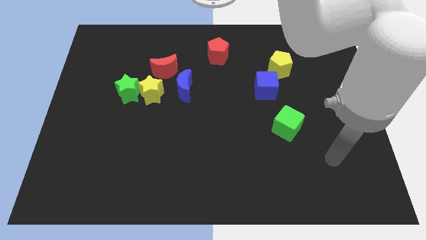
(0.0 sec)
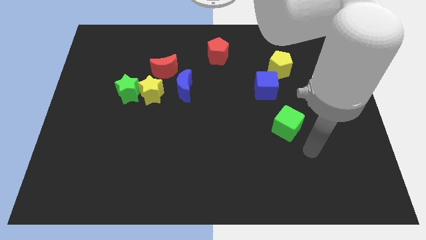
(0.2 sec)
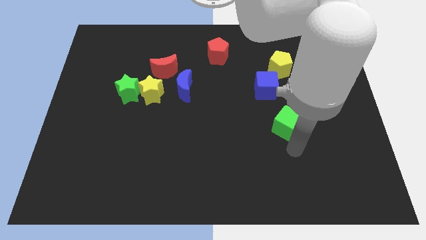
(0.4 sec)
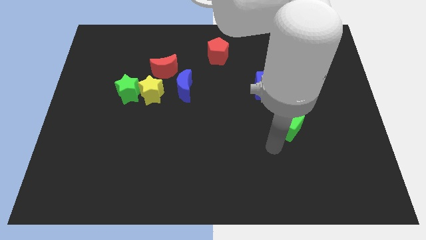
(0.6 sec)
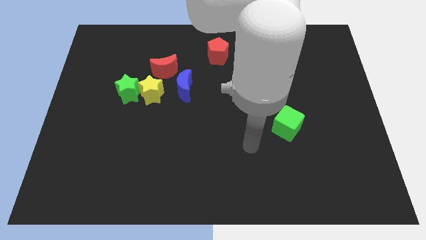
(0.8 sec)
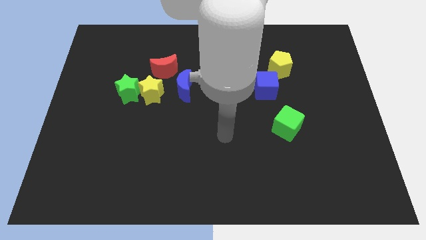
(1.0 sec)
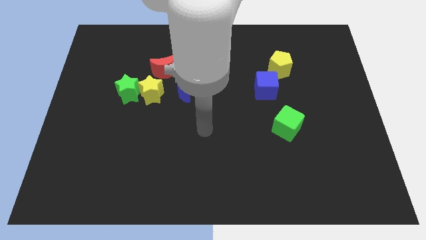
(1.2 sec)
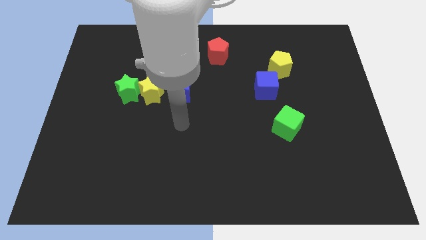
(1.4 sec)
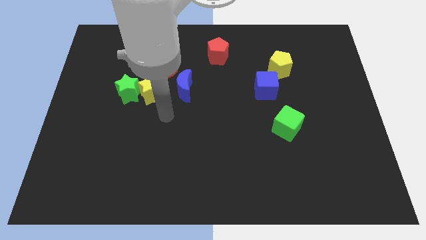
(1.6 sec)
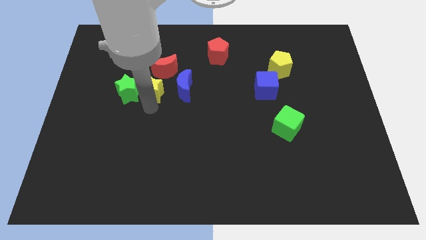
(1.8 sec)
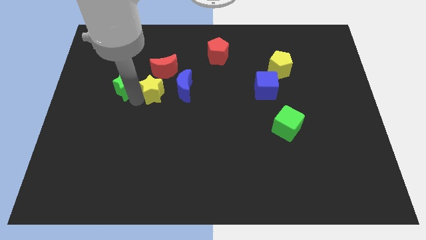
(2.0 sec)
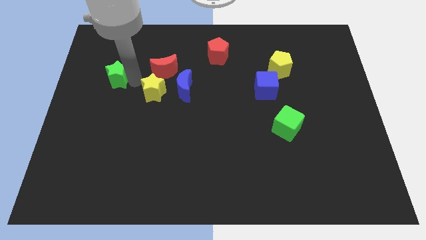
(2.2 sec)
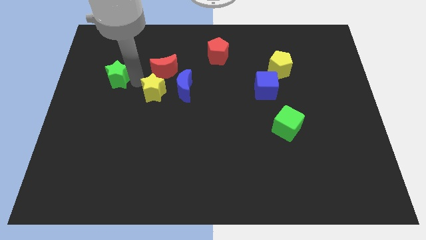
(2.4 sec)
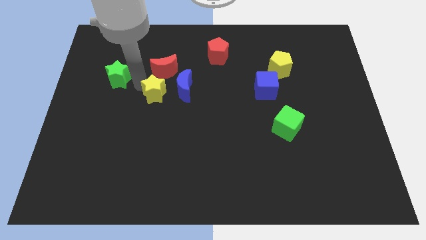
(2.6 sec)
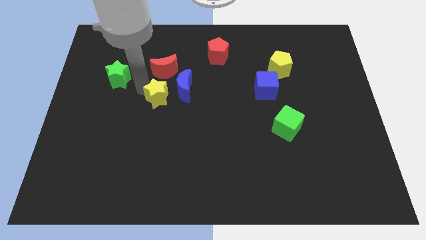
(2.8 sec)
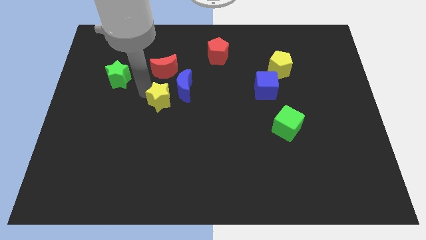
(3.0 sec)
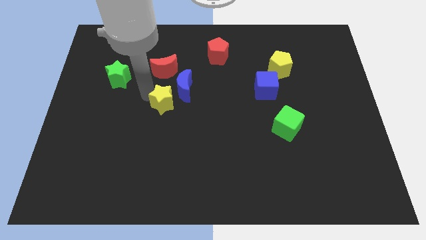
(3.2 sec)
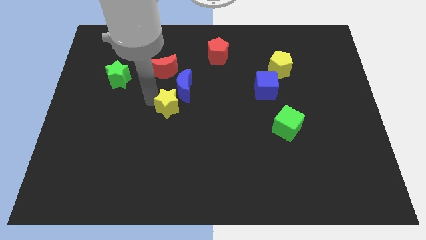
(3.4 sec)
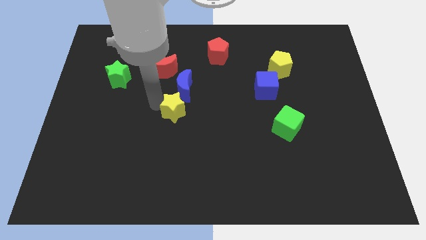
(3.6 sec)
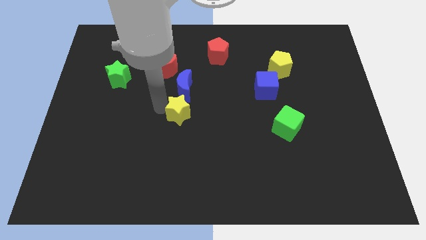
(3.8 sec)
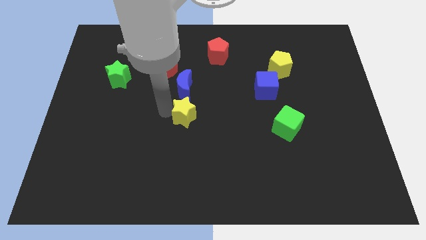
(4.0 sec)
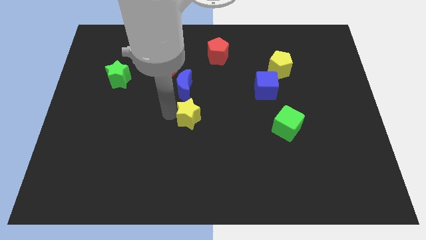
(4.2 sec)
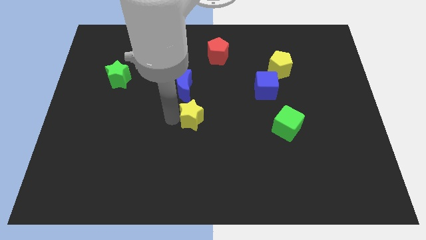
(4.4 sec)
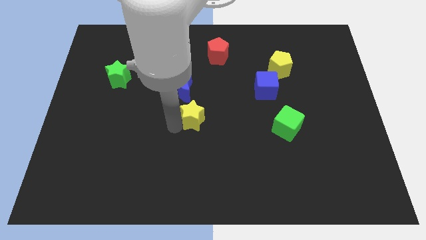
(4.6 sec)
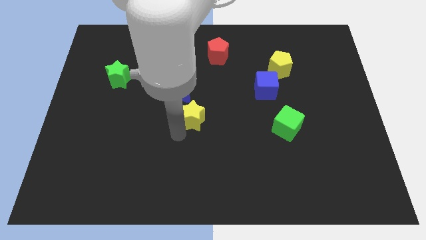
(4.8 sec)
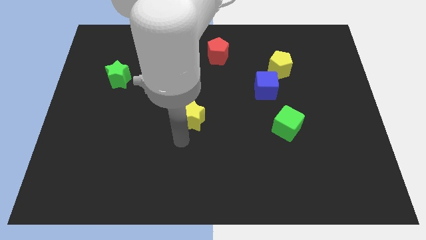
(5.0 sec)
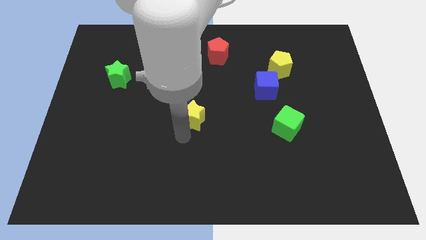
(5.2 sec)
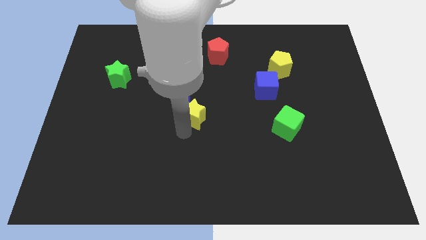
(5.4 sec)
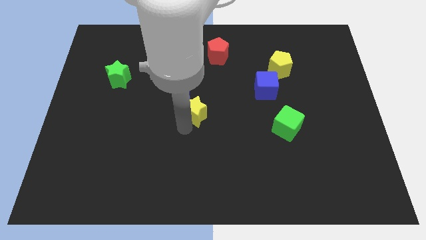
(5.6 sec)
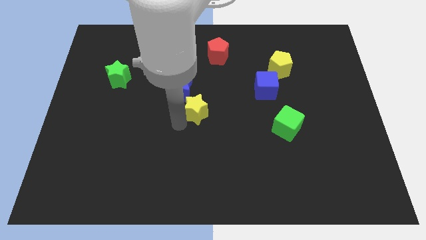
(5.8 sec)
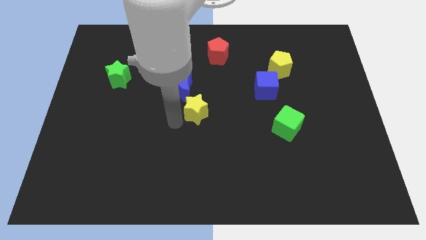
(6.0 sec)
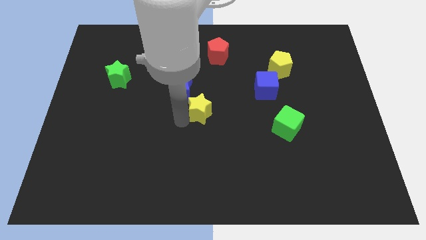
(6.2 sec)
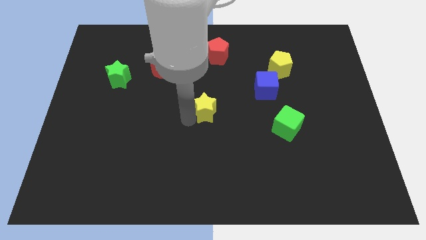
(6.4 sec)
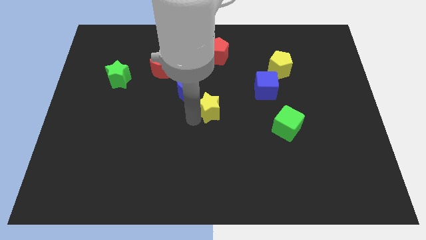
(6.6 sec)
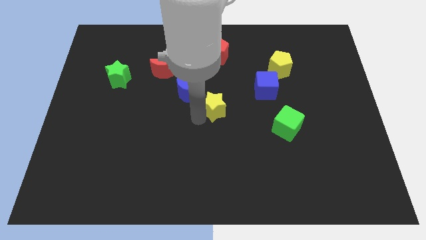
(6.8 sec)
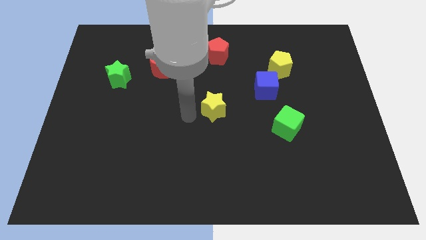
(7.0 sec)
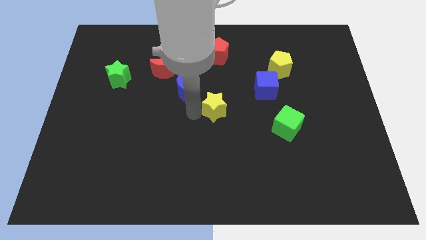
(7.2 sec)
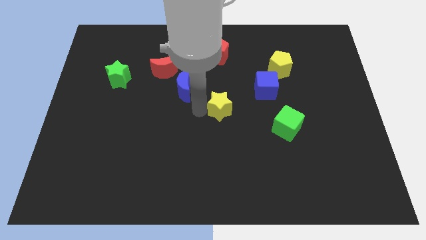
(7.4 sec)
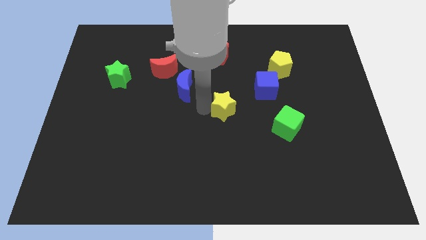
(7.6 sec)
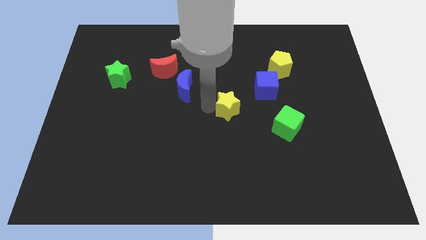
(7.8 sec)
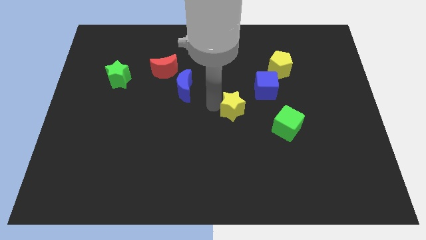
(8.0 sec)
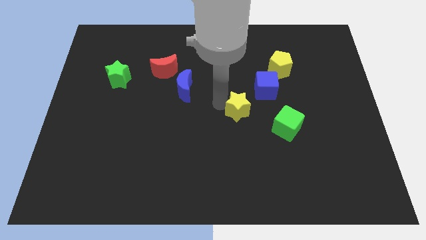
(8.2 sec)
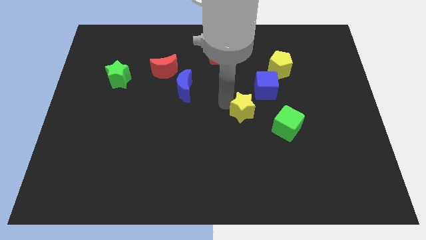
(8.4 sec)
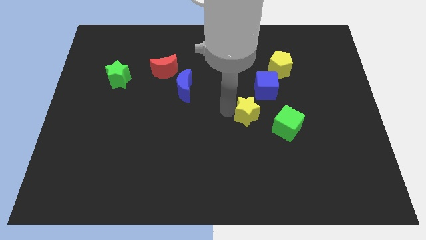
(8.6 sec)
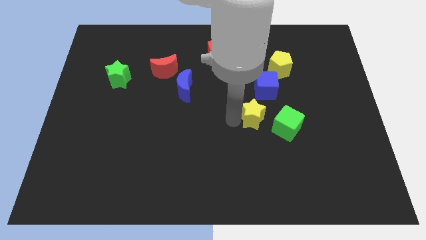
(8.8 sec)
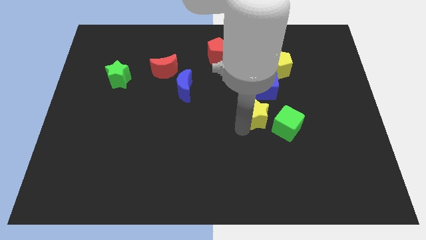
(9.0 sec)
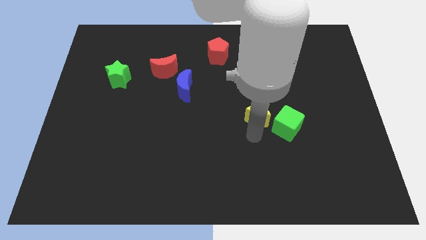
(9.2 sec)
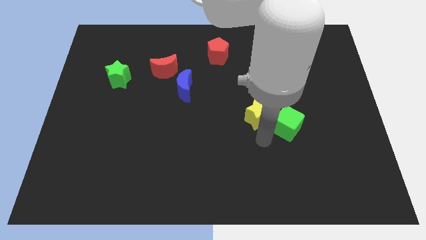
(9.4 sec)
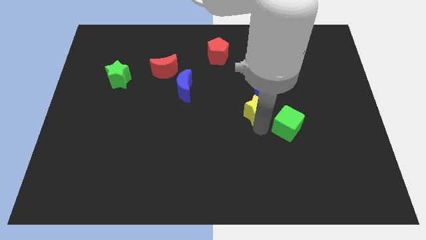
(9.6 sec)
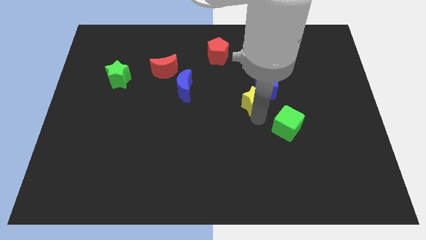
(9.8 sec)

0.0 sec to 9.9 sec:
put the yellow star next to the blue cube

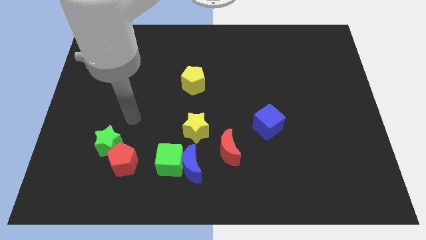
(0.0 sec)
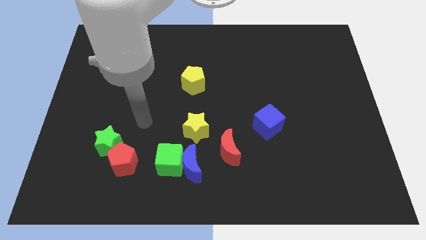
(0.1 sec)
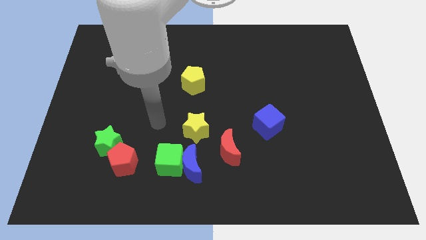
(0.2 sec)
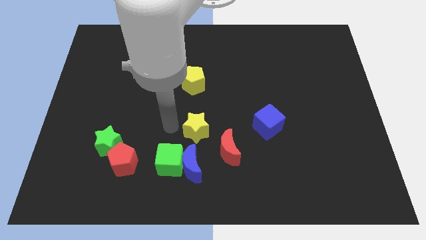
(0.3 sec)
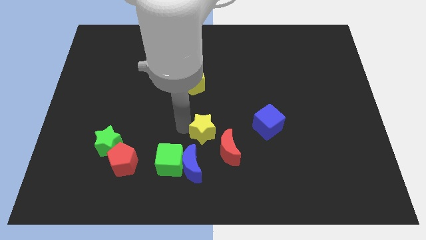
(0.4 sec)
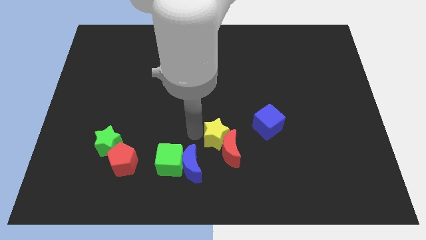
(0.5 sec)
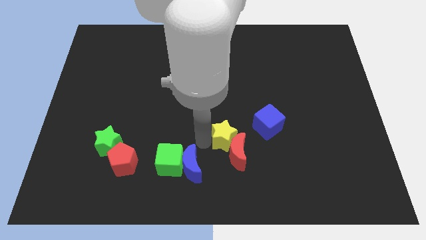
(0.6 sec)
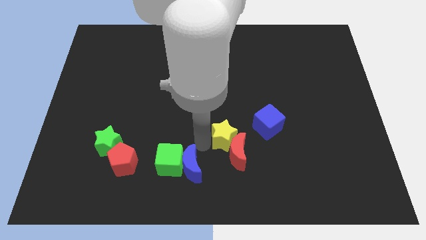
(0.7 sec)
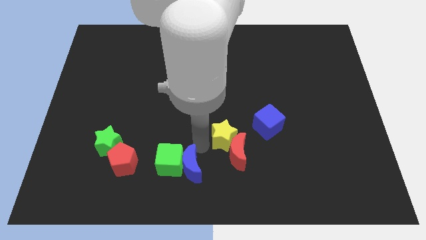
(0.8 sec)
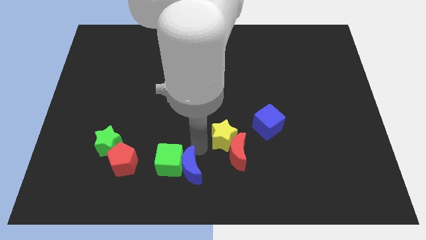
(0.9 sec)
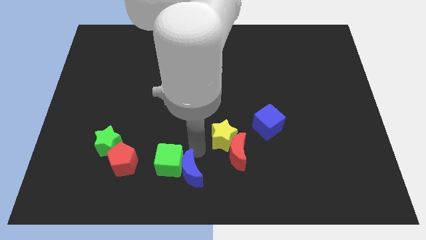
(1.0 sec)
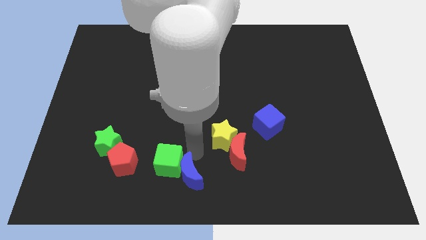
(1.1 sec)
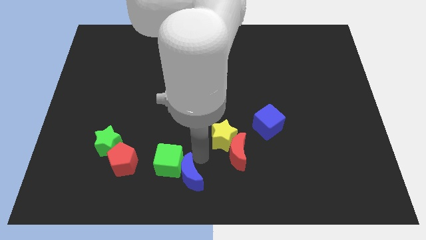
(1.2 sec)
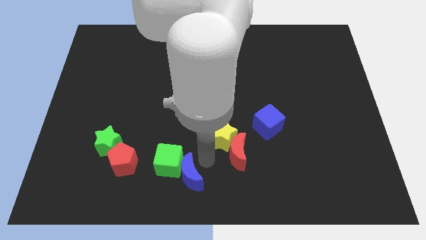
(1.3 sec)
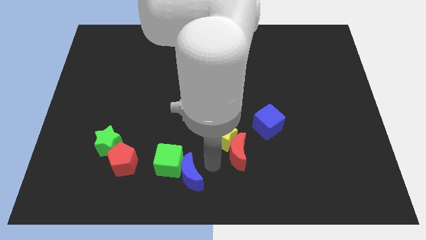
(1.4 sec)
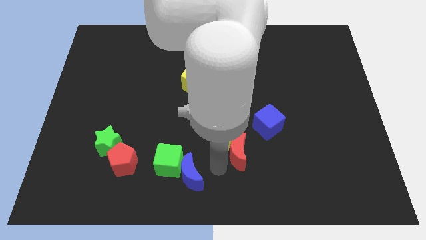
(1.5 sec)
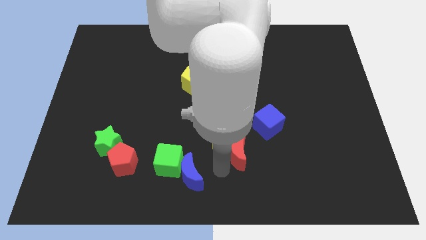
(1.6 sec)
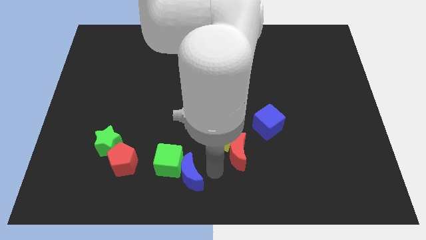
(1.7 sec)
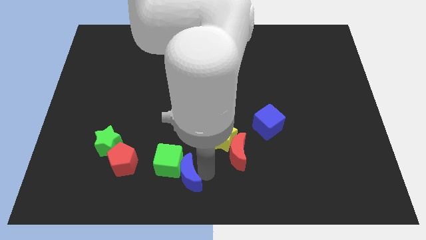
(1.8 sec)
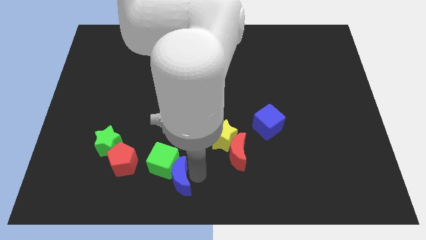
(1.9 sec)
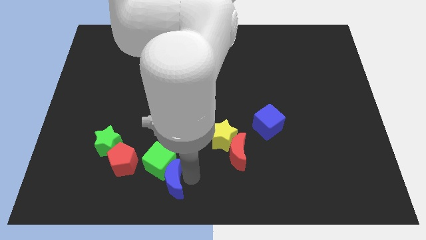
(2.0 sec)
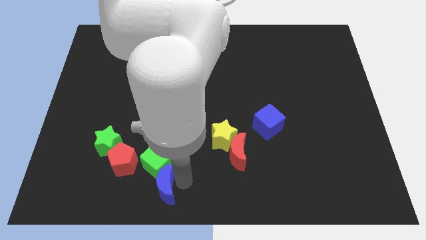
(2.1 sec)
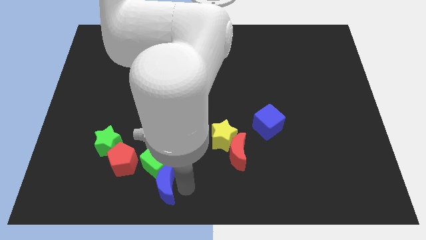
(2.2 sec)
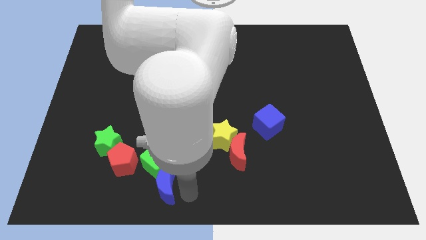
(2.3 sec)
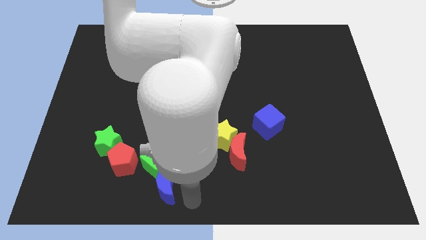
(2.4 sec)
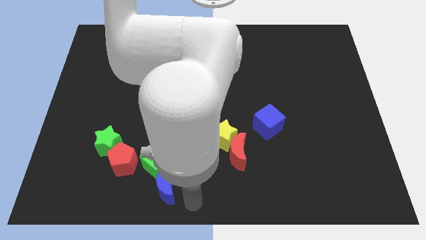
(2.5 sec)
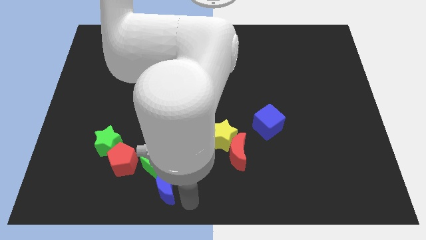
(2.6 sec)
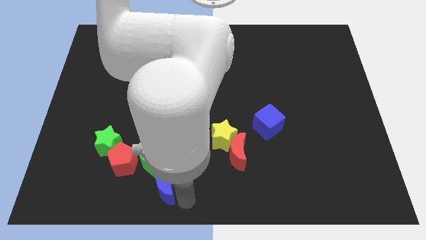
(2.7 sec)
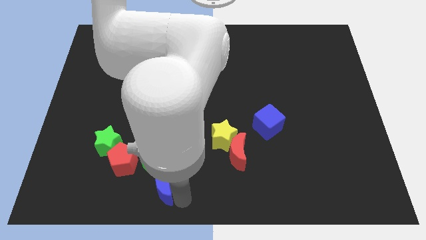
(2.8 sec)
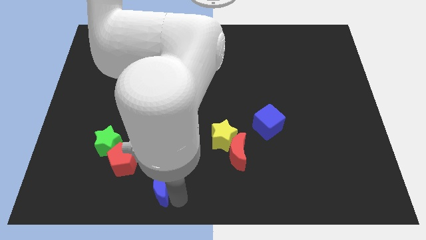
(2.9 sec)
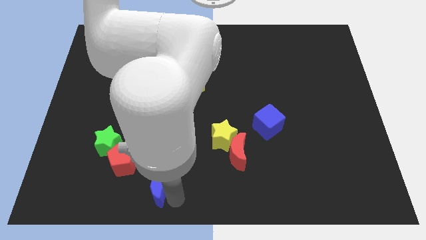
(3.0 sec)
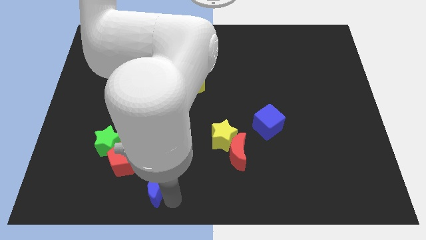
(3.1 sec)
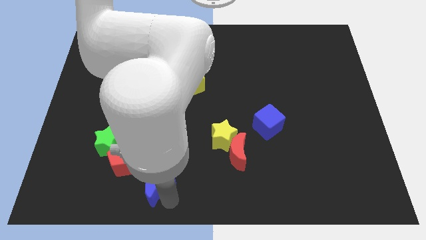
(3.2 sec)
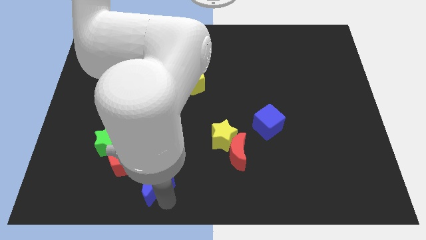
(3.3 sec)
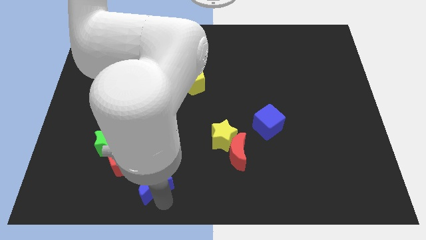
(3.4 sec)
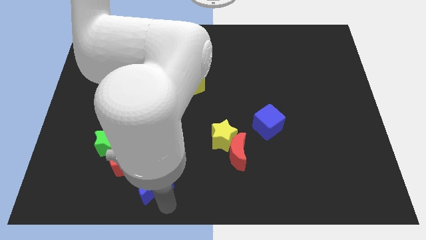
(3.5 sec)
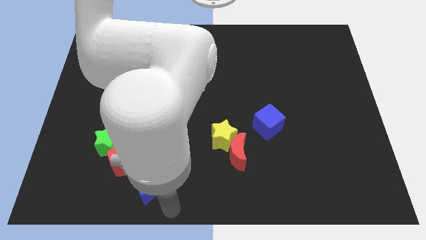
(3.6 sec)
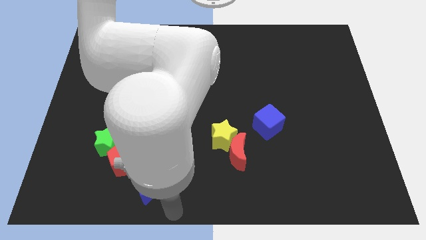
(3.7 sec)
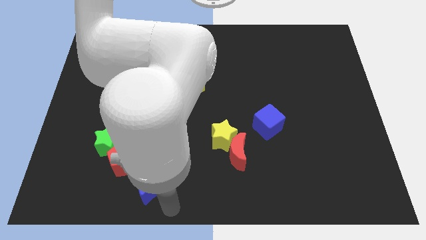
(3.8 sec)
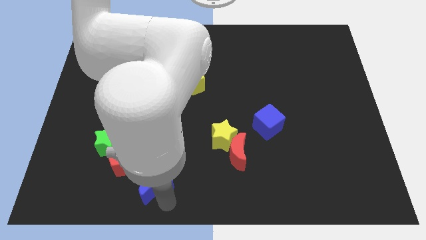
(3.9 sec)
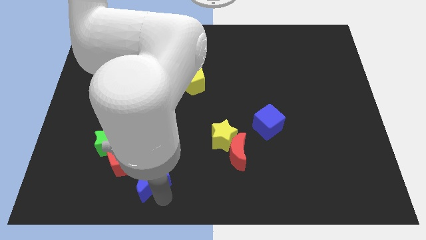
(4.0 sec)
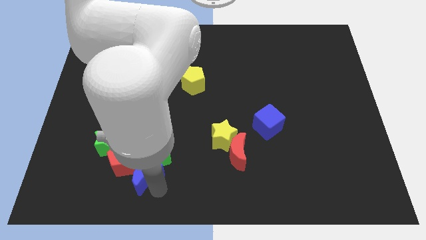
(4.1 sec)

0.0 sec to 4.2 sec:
put the blue moon next to the red pentagon
